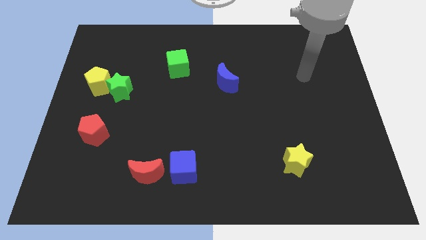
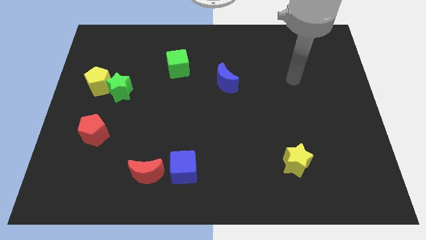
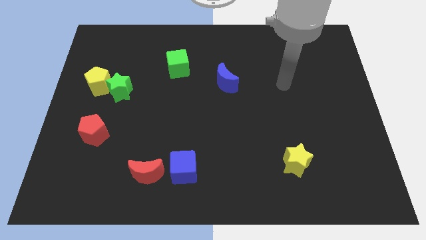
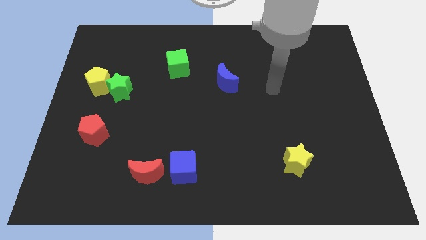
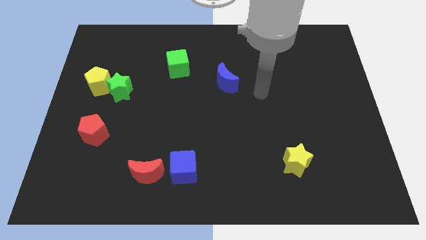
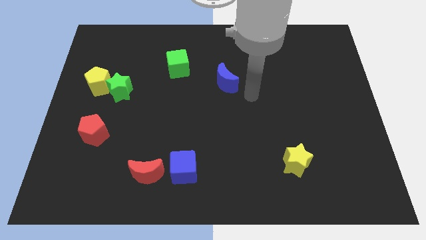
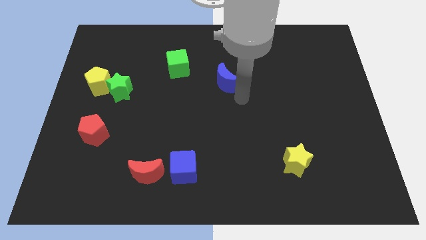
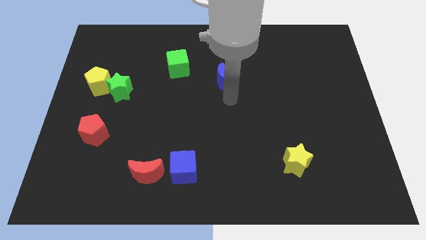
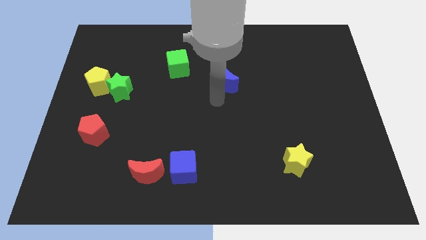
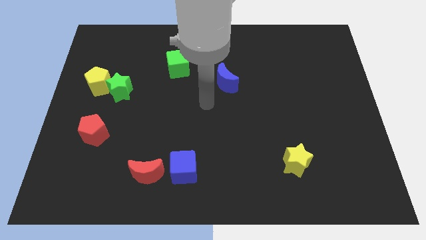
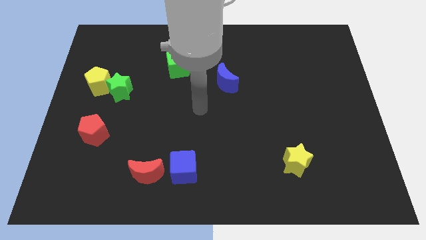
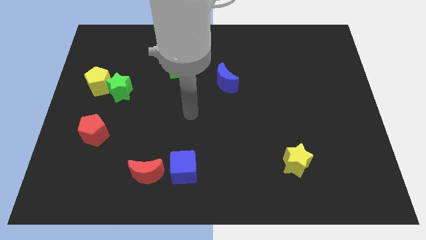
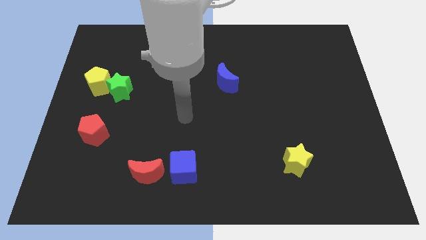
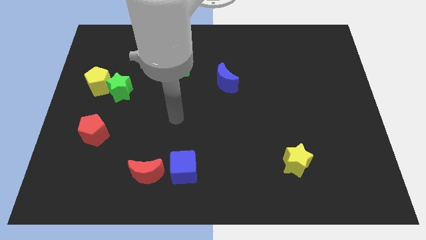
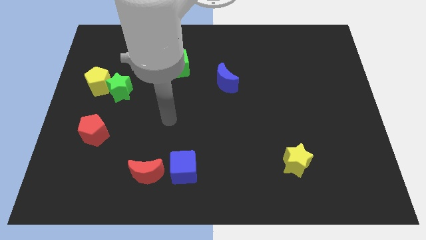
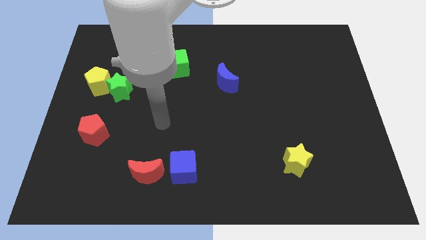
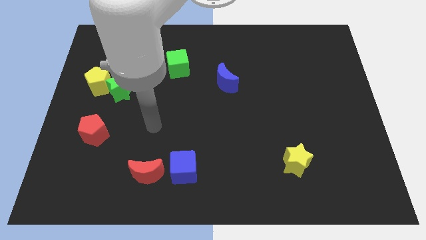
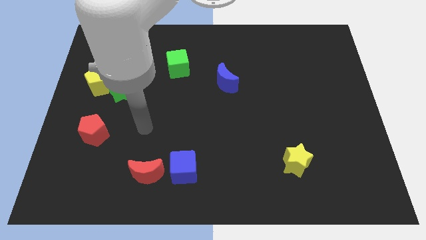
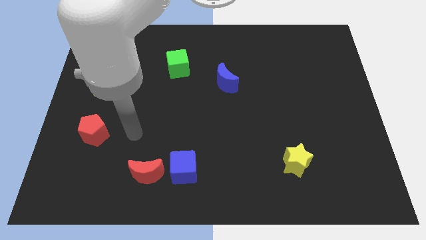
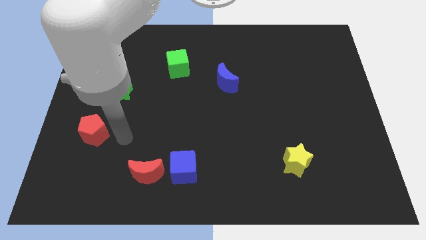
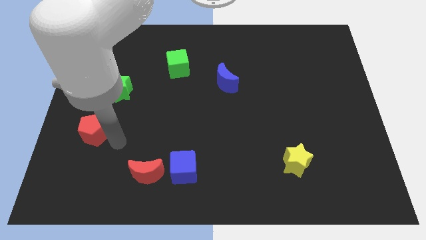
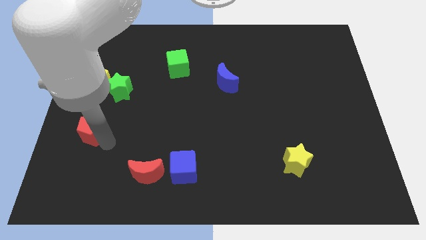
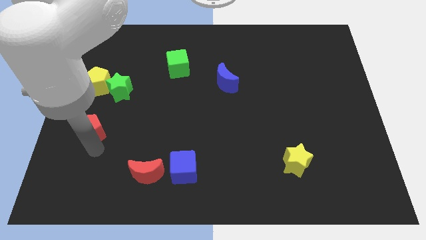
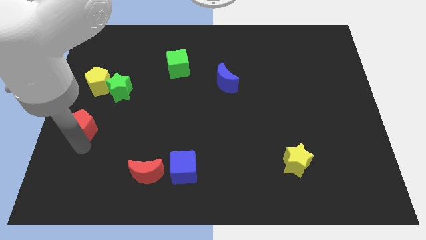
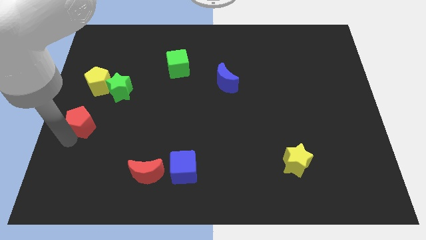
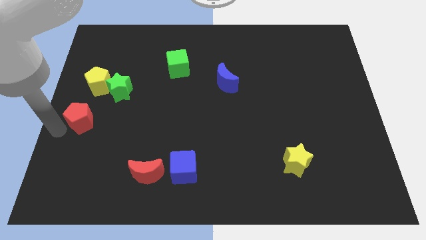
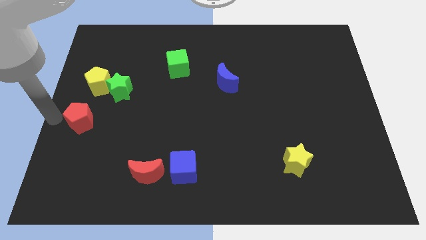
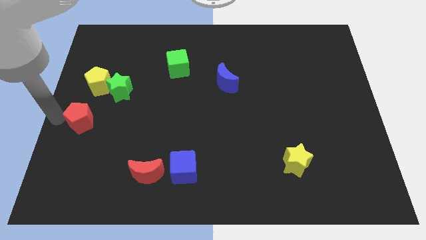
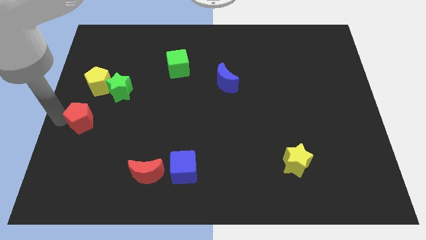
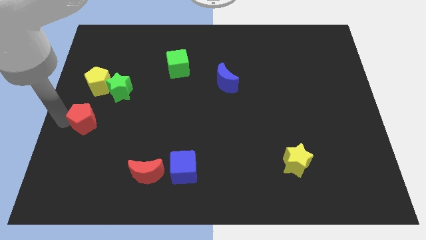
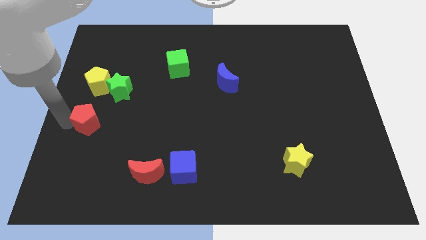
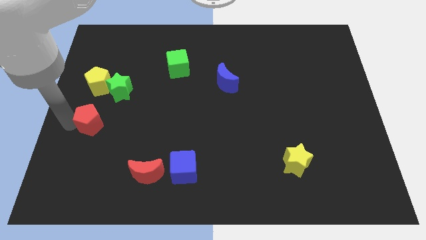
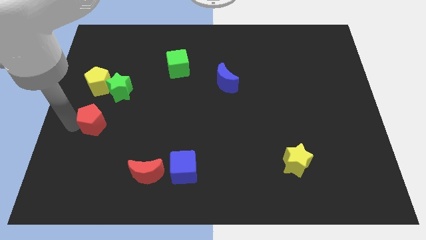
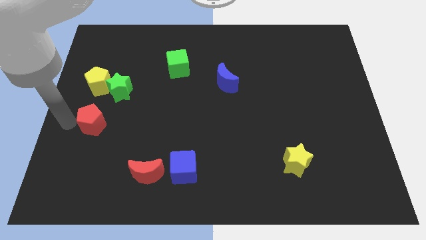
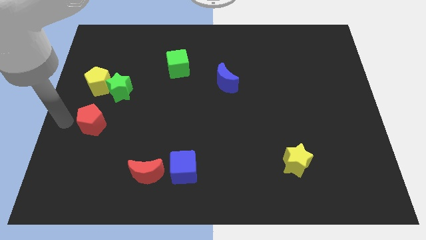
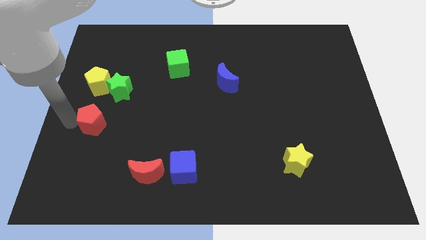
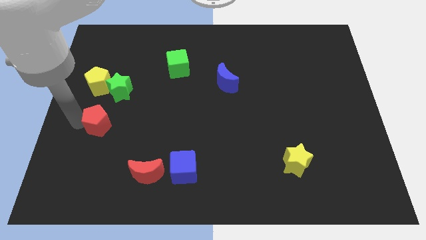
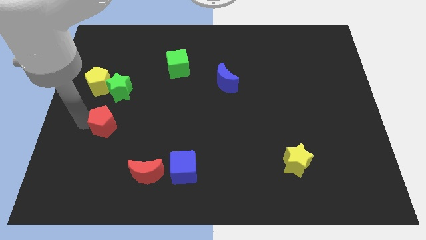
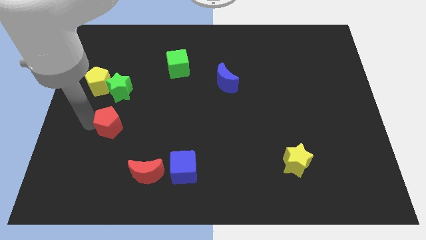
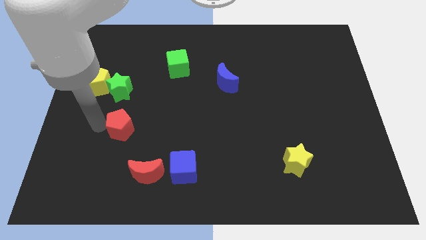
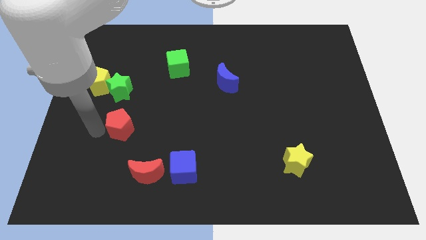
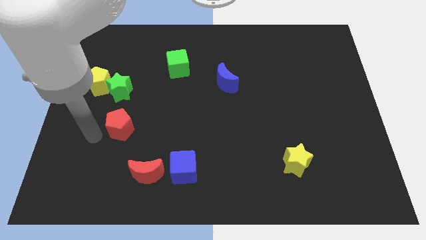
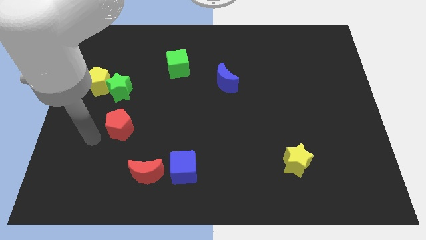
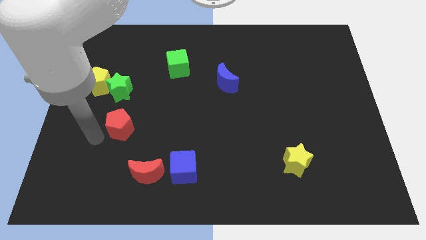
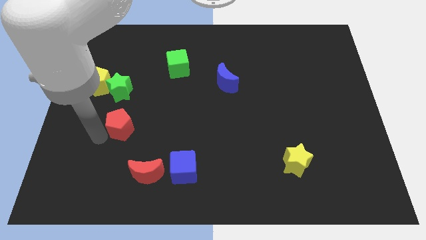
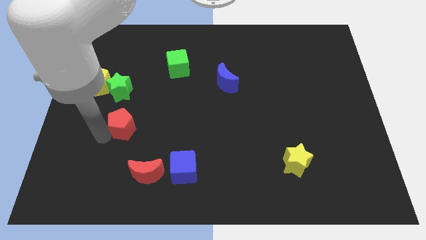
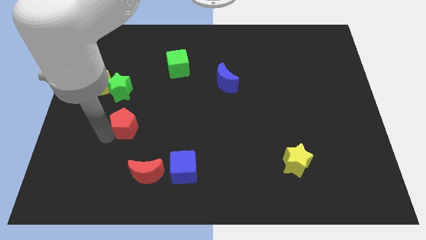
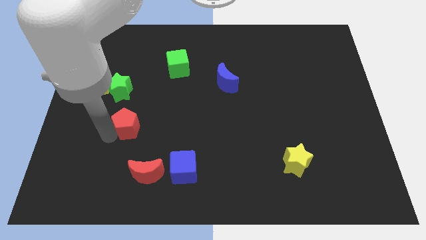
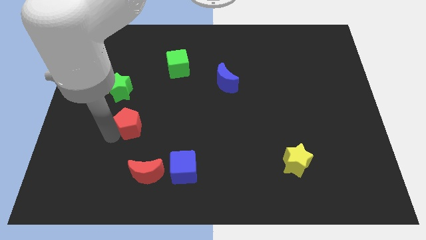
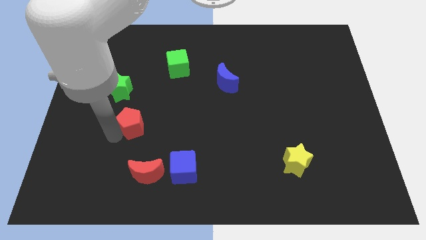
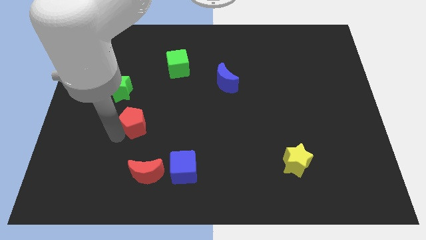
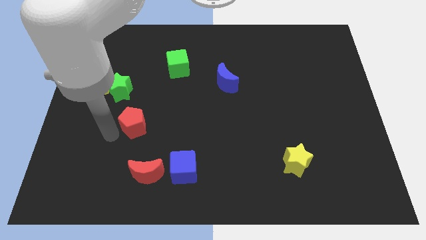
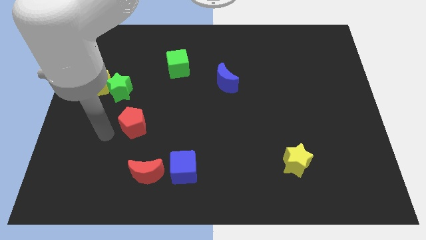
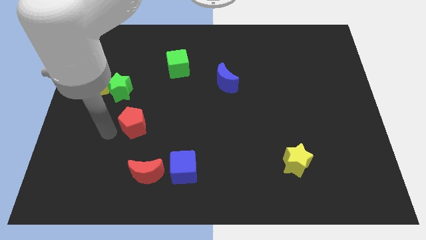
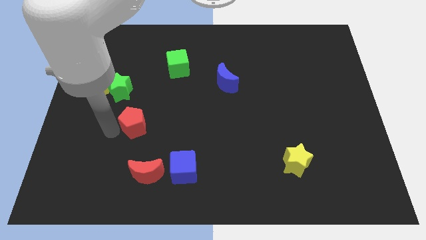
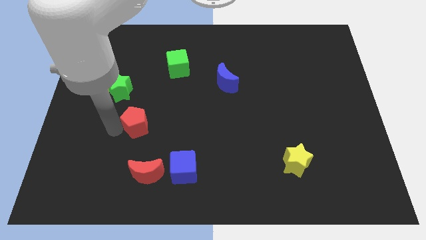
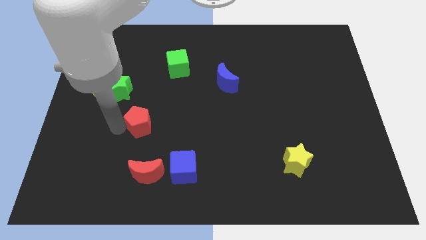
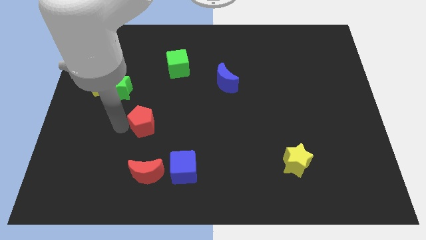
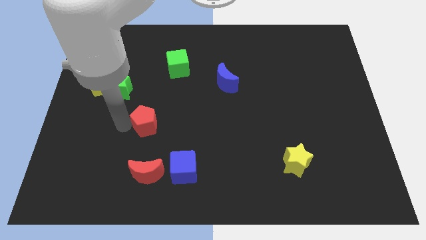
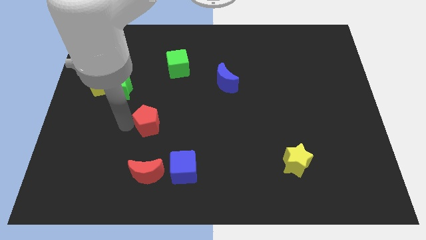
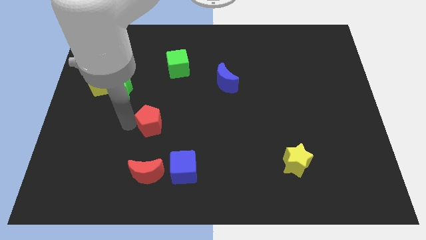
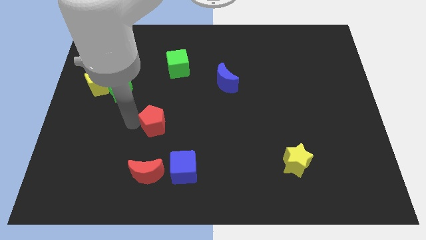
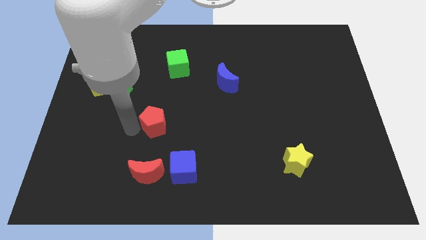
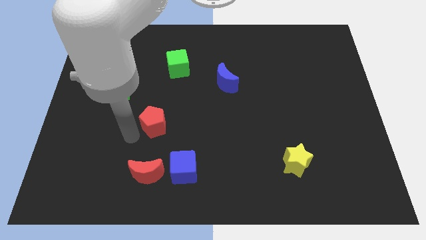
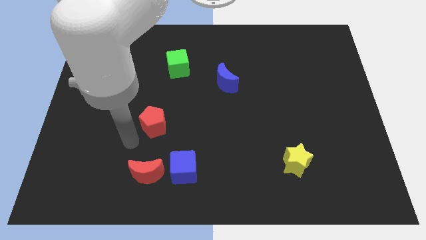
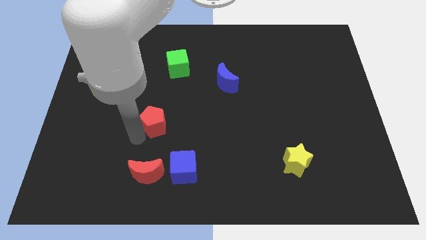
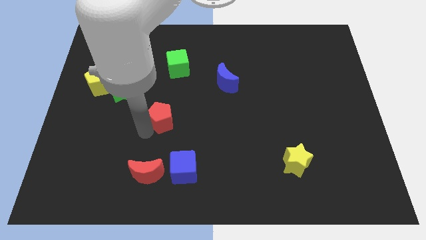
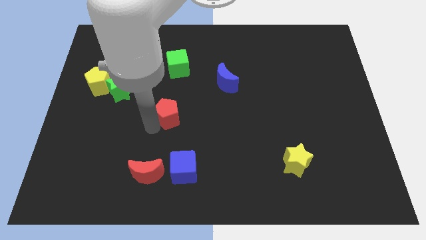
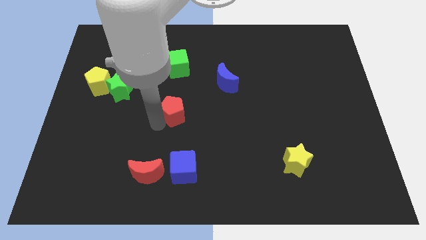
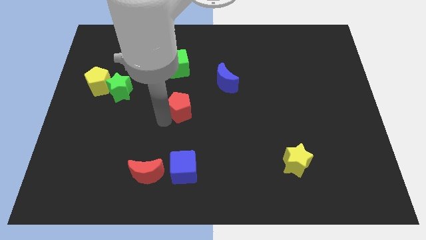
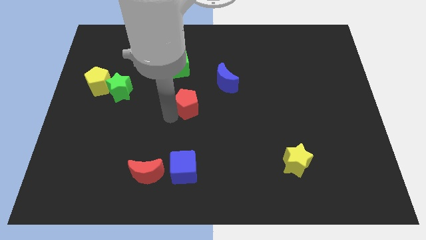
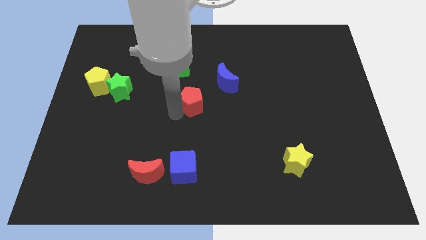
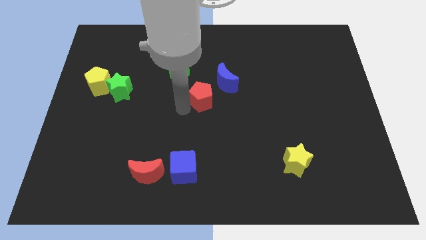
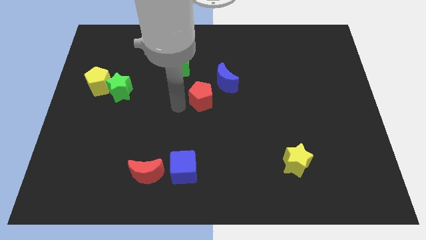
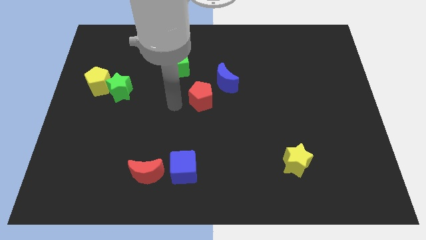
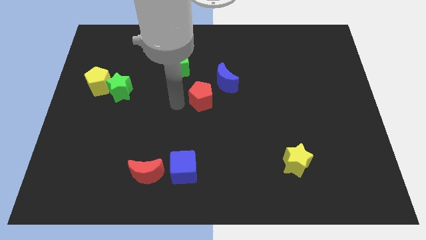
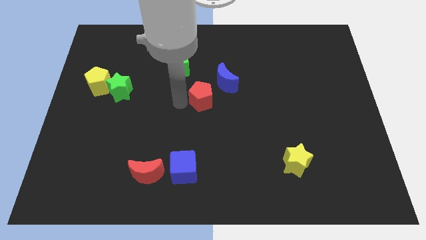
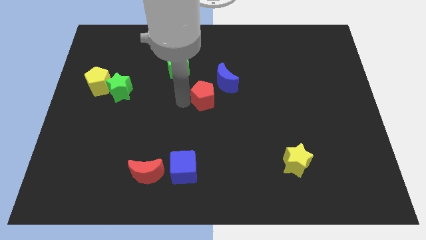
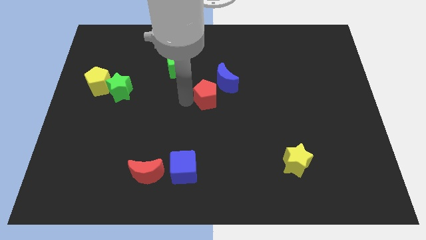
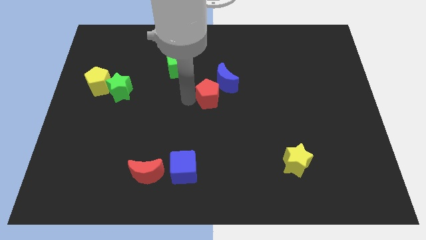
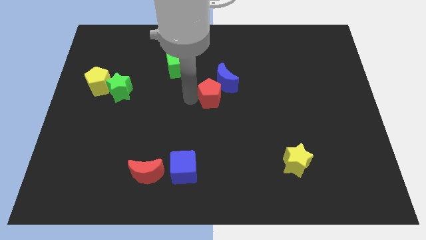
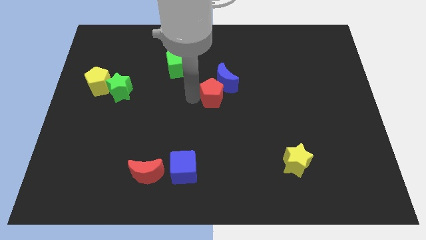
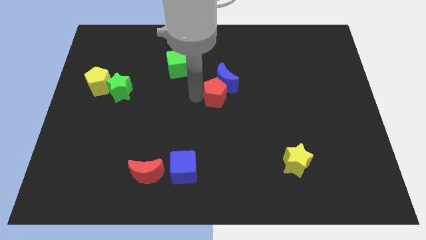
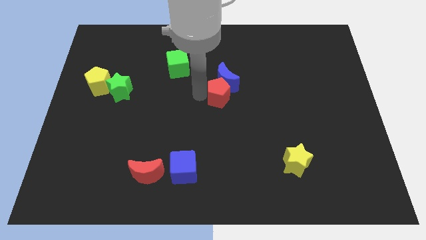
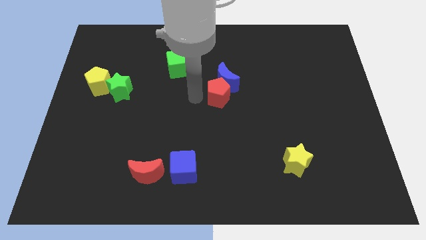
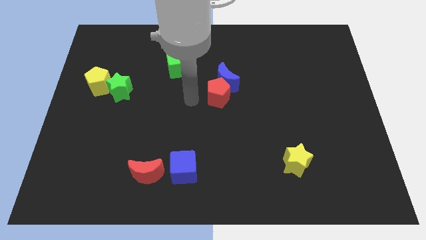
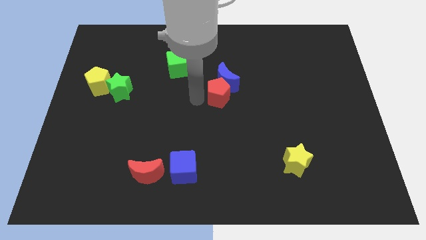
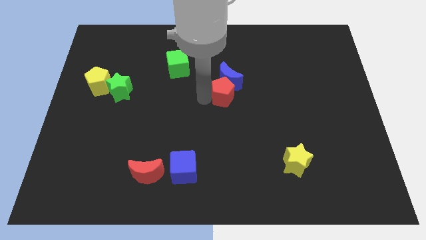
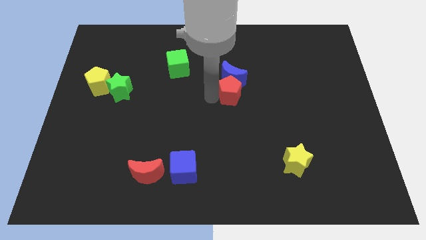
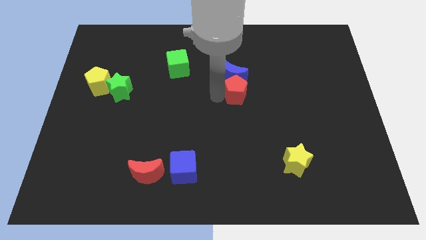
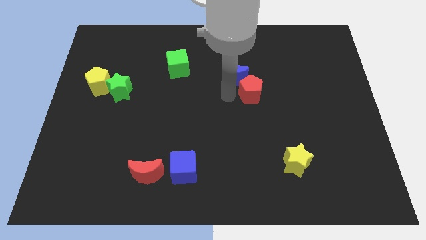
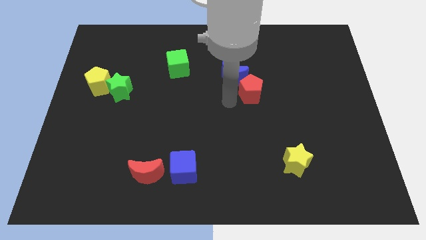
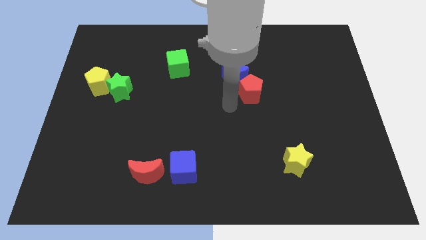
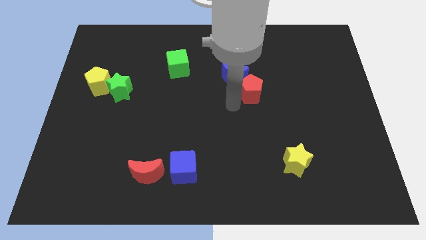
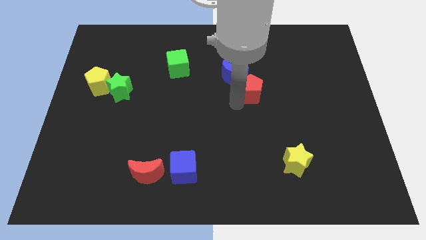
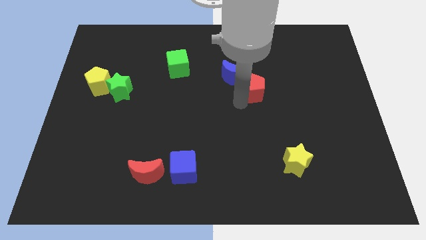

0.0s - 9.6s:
slide the red pentagon right of the blue moon
